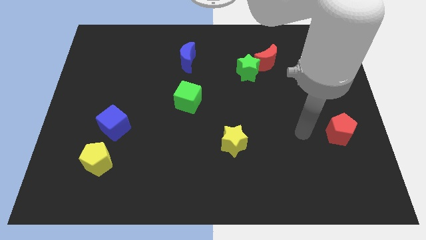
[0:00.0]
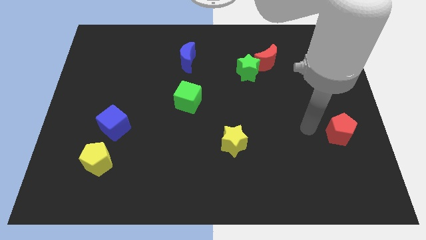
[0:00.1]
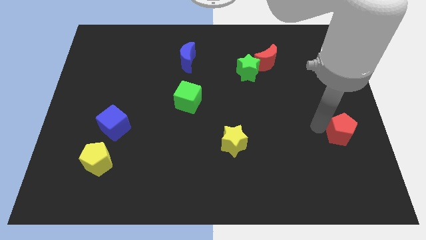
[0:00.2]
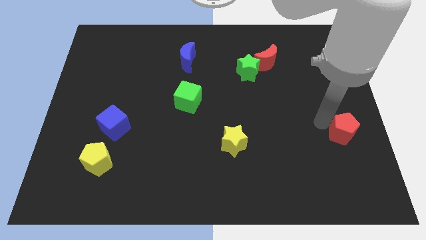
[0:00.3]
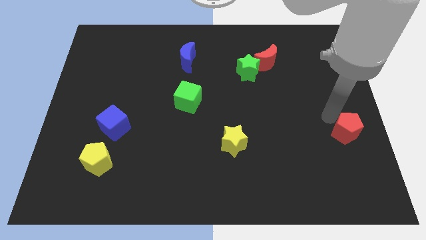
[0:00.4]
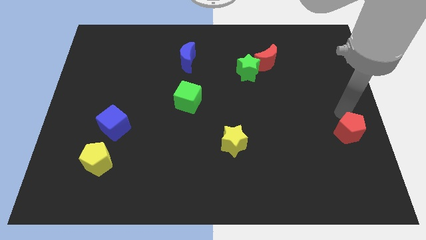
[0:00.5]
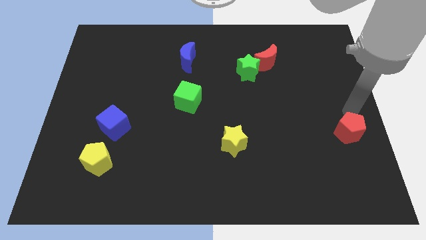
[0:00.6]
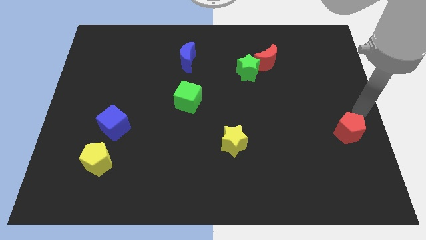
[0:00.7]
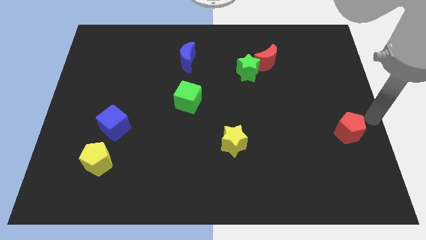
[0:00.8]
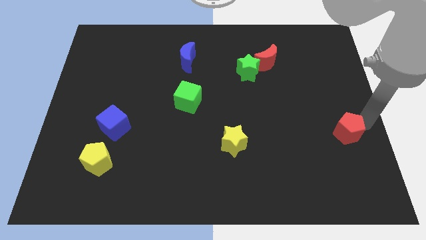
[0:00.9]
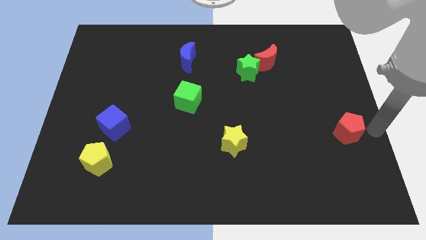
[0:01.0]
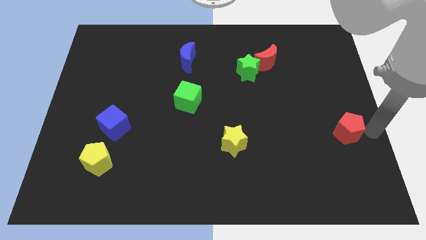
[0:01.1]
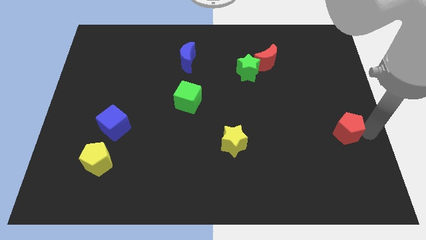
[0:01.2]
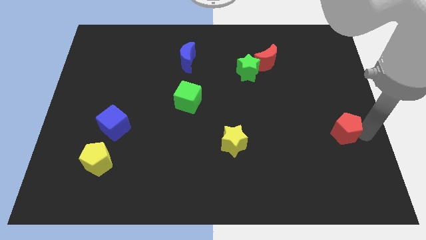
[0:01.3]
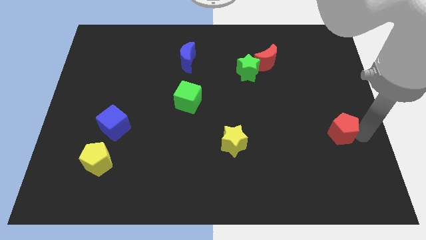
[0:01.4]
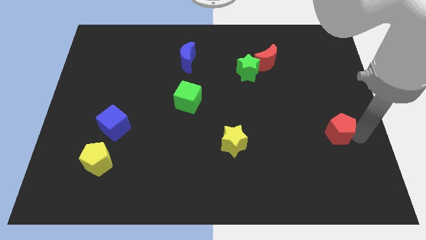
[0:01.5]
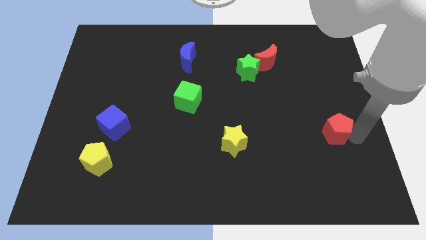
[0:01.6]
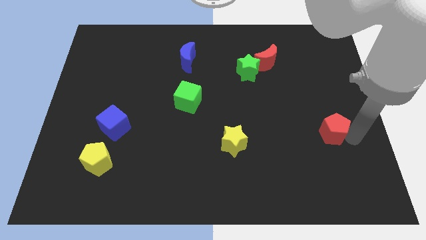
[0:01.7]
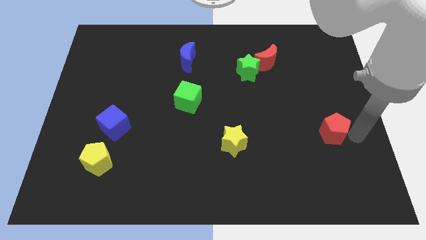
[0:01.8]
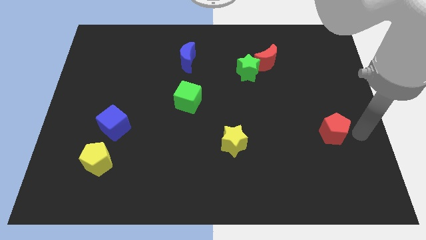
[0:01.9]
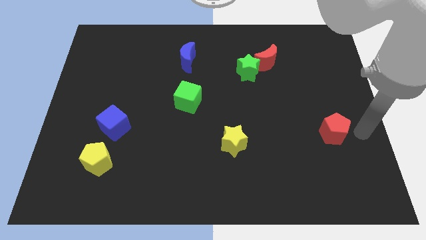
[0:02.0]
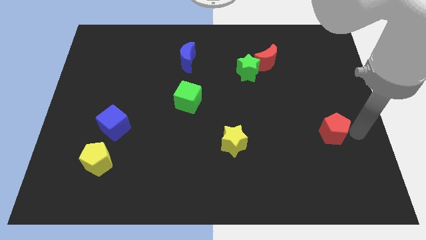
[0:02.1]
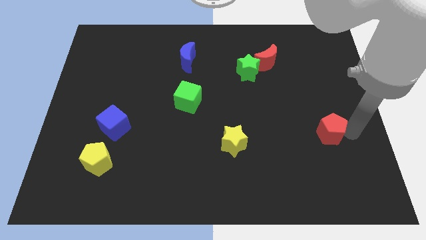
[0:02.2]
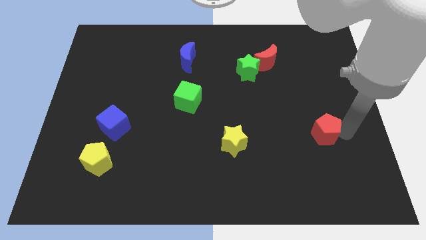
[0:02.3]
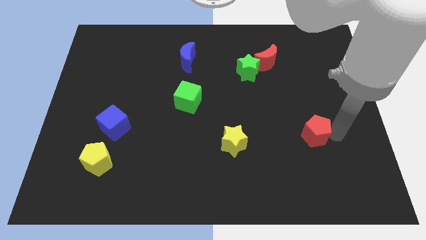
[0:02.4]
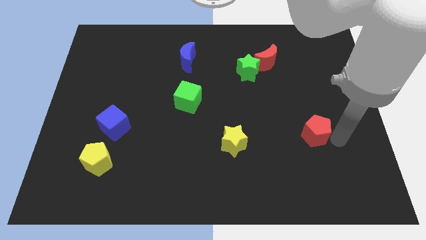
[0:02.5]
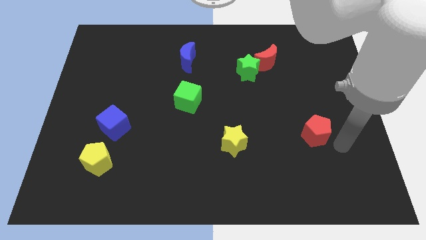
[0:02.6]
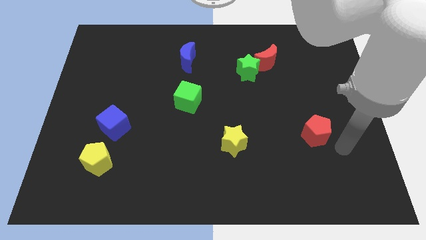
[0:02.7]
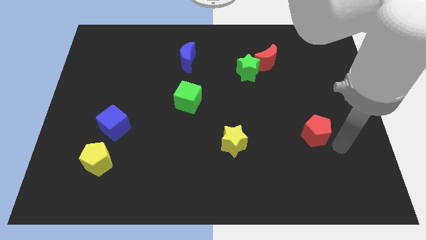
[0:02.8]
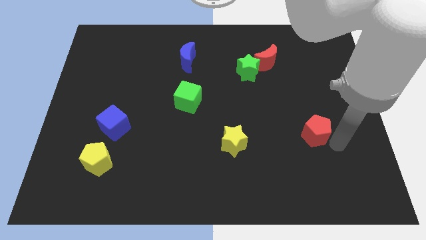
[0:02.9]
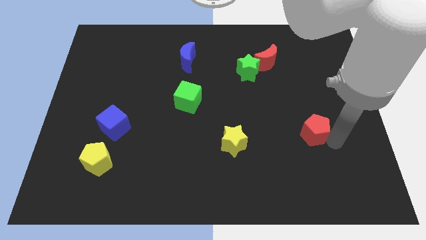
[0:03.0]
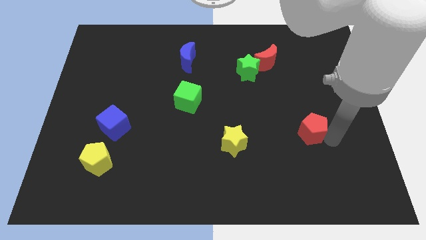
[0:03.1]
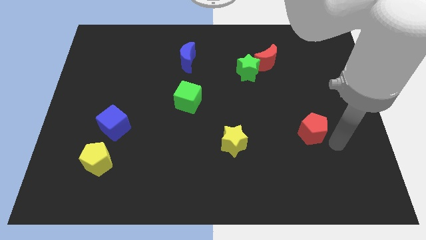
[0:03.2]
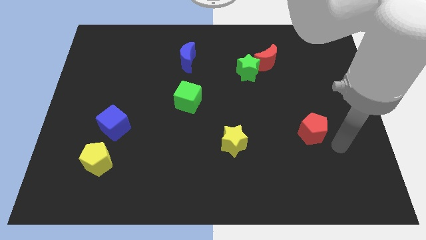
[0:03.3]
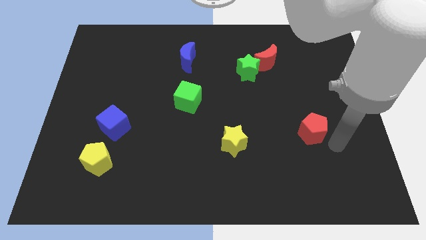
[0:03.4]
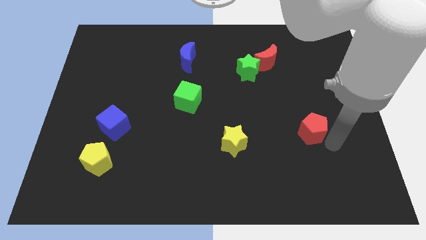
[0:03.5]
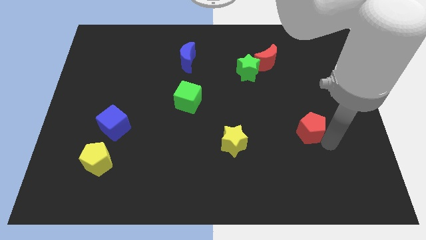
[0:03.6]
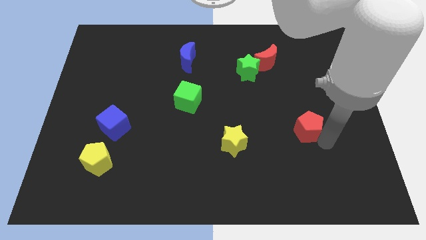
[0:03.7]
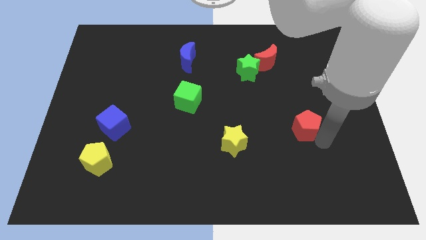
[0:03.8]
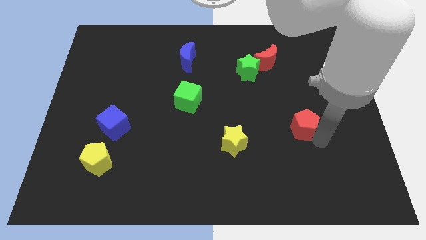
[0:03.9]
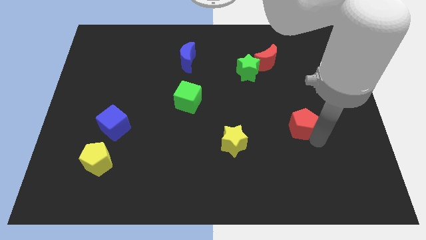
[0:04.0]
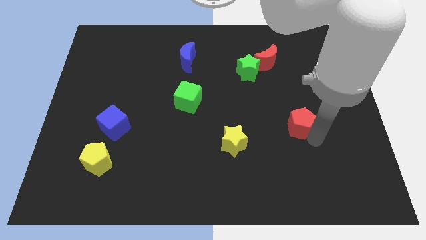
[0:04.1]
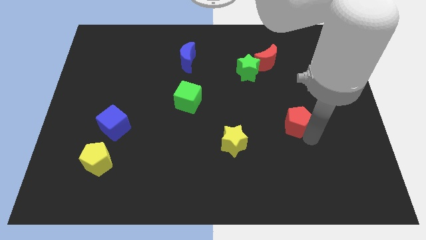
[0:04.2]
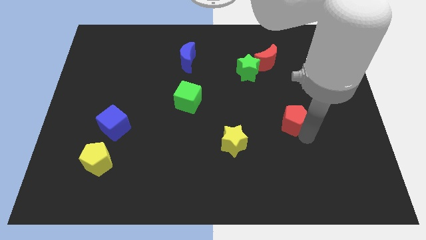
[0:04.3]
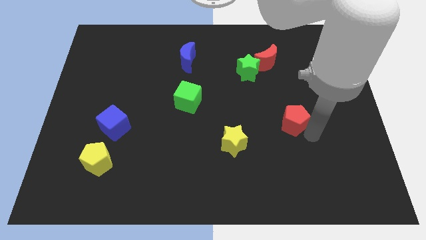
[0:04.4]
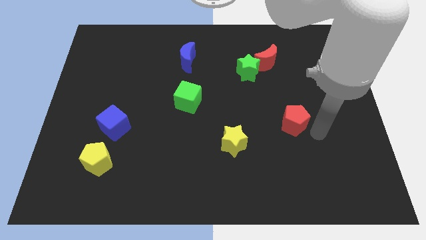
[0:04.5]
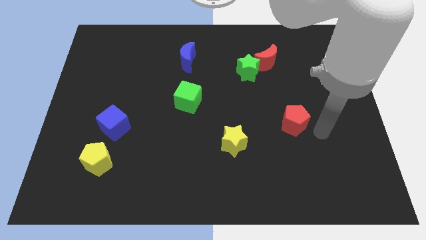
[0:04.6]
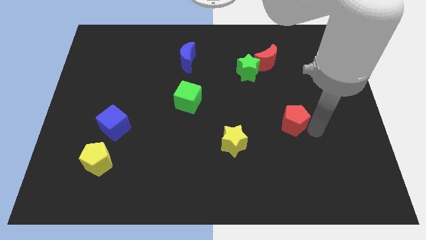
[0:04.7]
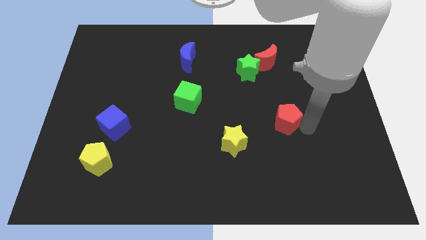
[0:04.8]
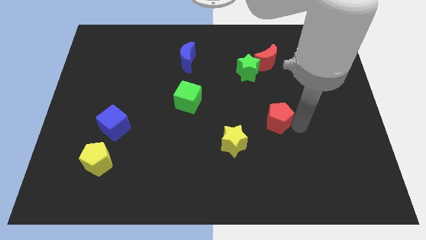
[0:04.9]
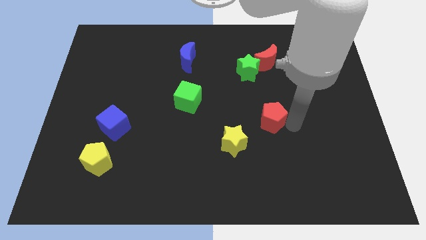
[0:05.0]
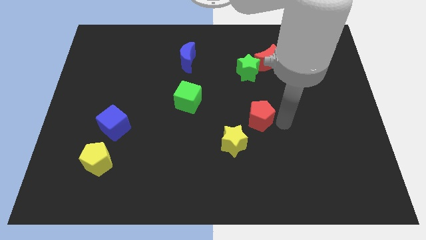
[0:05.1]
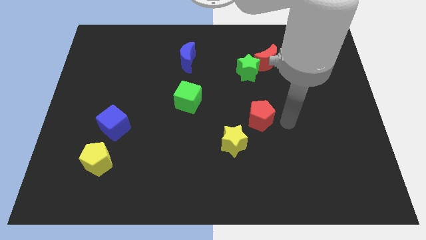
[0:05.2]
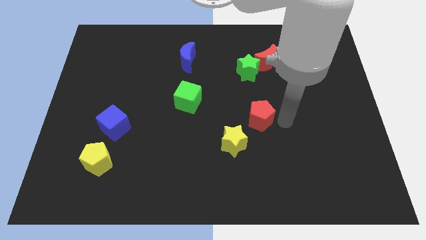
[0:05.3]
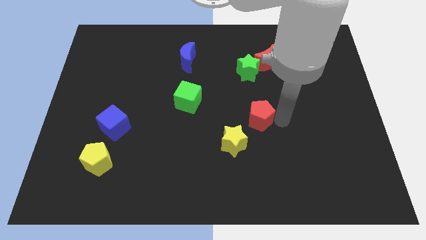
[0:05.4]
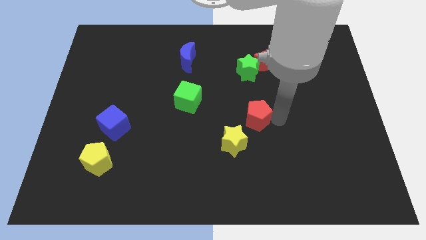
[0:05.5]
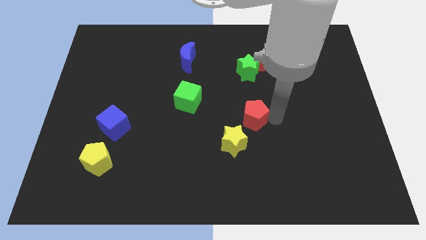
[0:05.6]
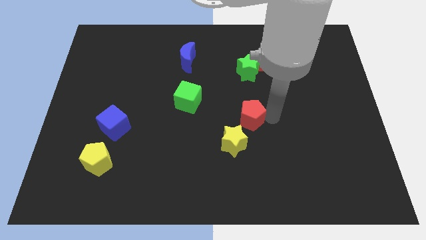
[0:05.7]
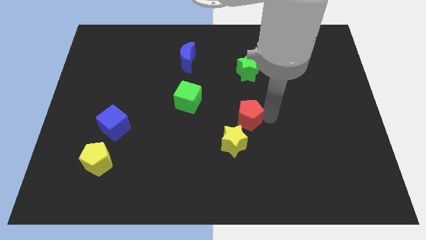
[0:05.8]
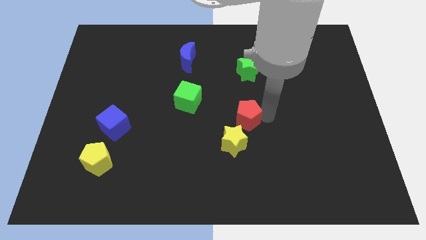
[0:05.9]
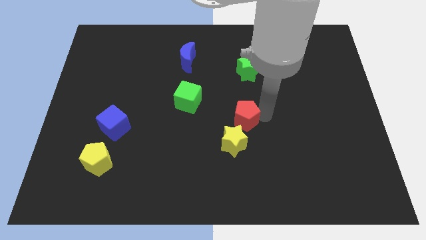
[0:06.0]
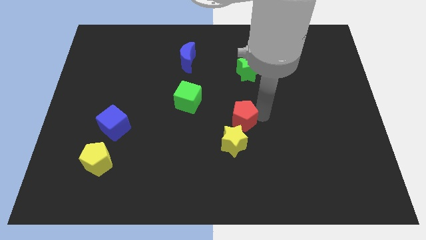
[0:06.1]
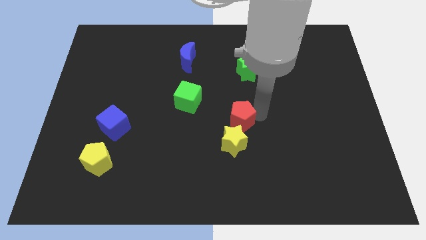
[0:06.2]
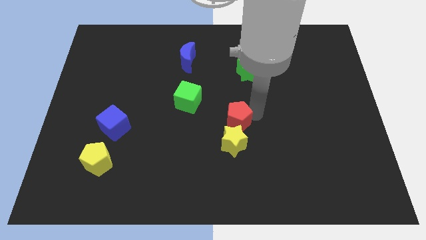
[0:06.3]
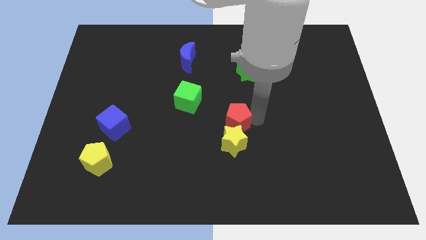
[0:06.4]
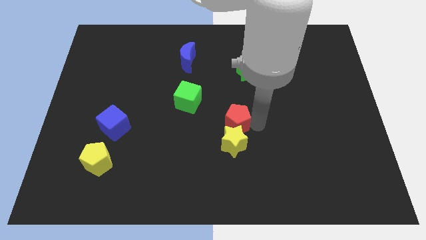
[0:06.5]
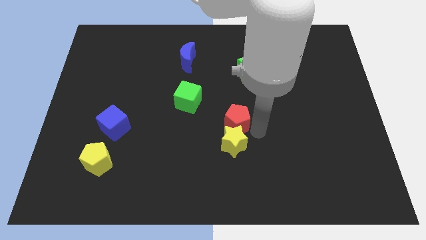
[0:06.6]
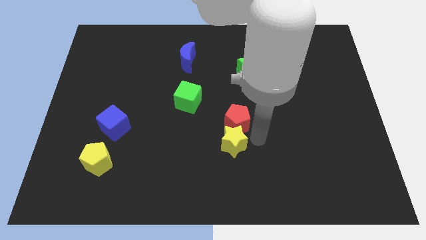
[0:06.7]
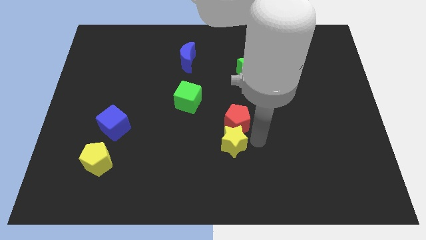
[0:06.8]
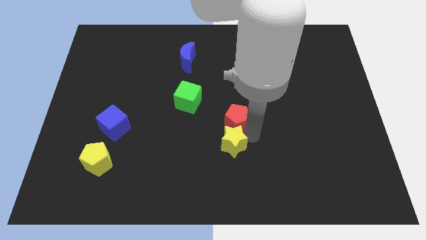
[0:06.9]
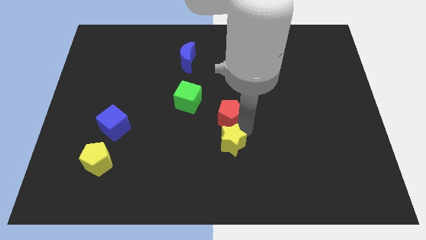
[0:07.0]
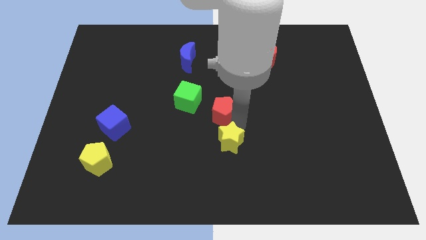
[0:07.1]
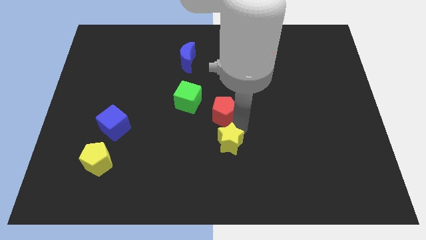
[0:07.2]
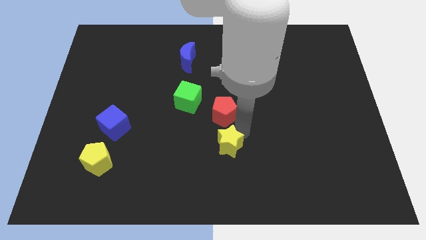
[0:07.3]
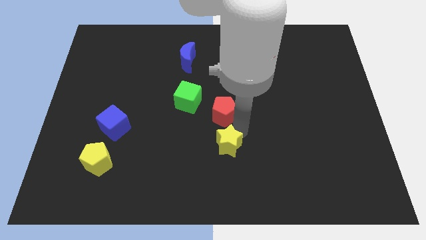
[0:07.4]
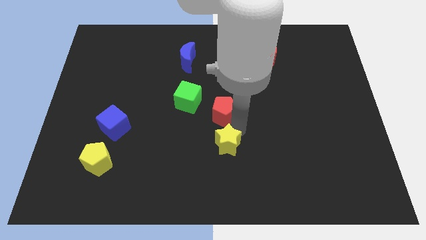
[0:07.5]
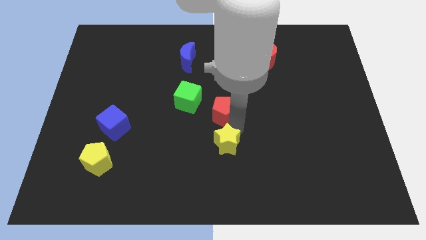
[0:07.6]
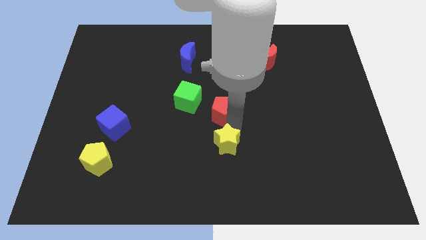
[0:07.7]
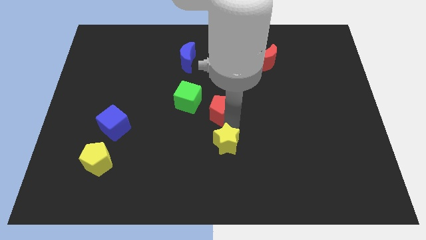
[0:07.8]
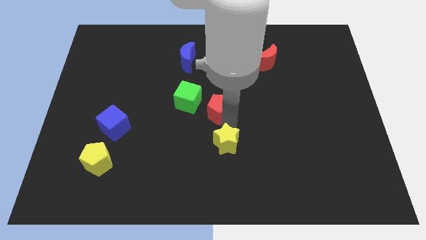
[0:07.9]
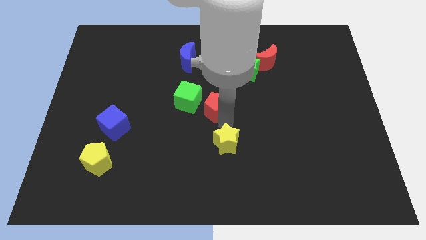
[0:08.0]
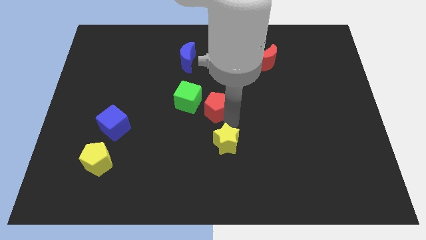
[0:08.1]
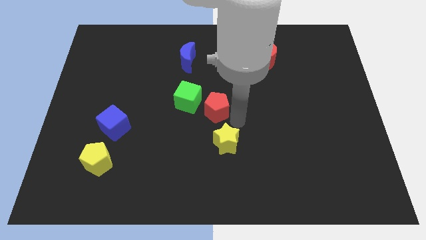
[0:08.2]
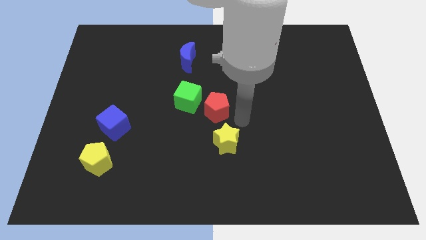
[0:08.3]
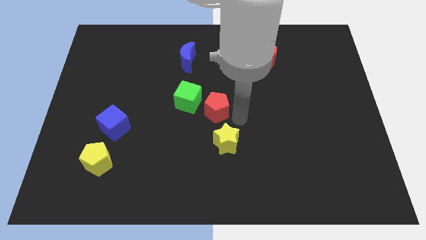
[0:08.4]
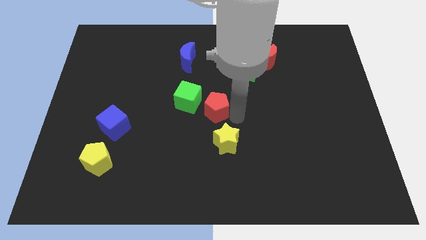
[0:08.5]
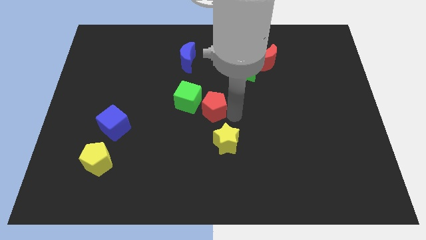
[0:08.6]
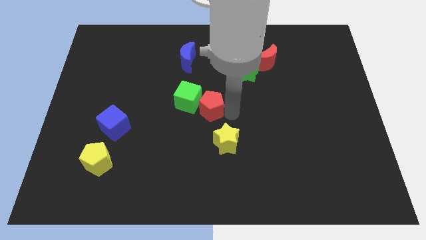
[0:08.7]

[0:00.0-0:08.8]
slide the red pentagon next to the green cube
